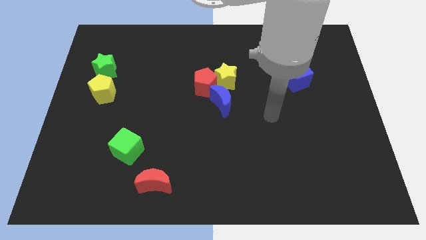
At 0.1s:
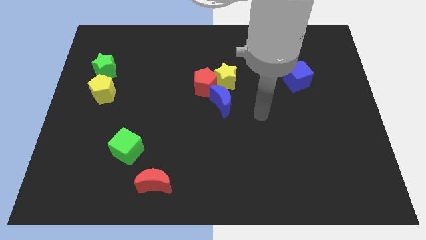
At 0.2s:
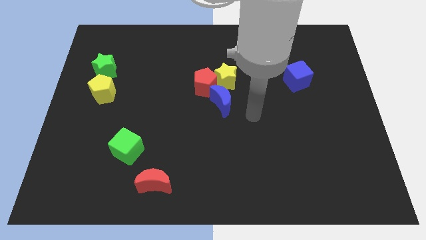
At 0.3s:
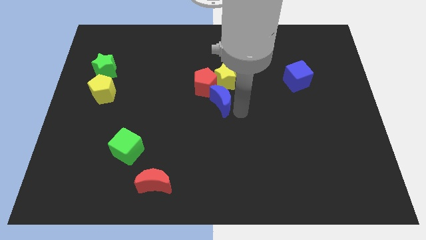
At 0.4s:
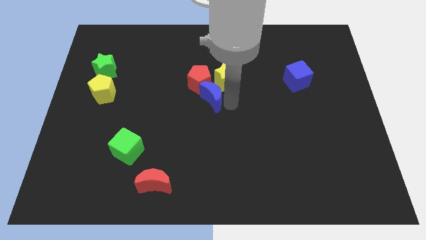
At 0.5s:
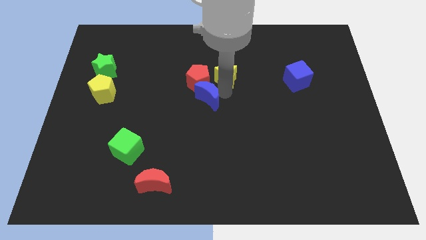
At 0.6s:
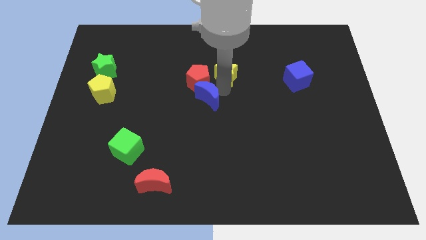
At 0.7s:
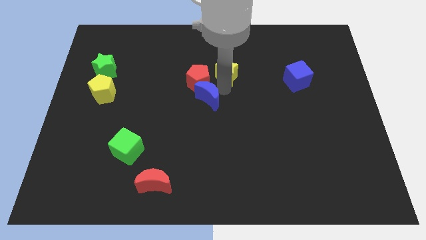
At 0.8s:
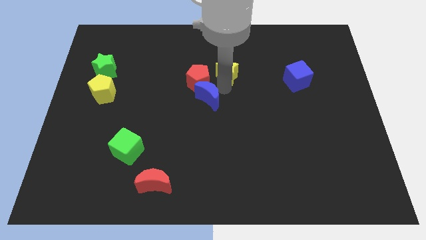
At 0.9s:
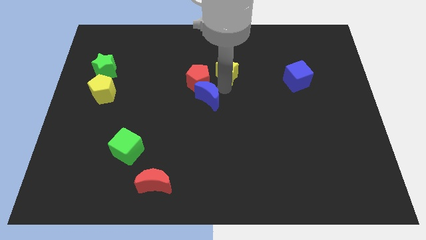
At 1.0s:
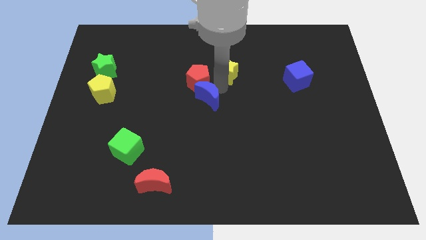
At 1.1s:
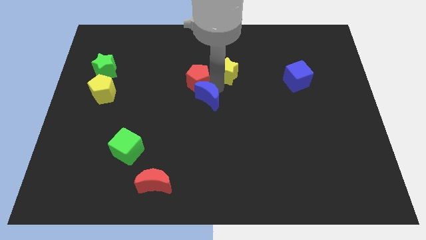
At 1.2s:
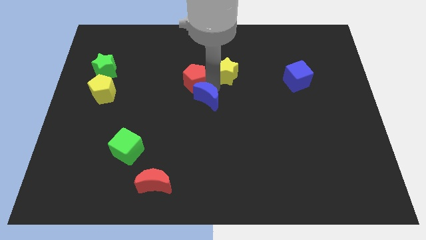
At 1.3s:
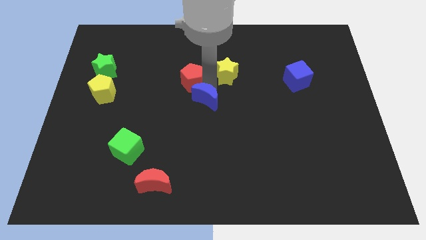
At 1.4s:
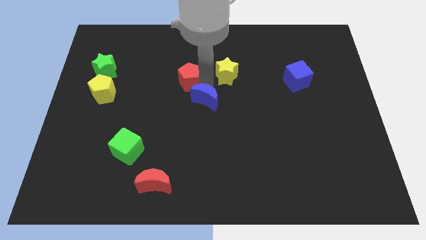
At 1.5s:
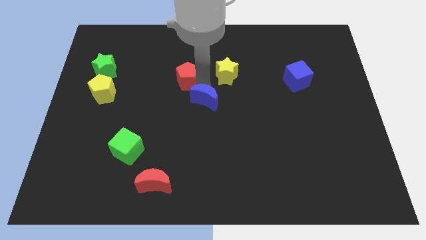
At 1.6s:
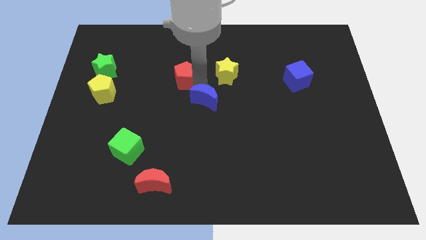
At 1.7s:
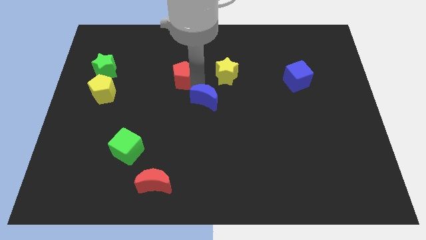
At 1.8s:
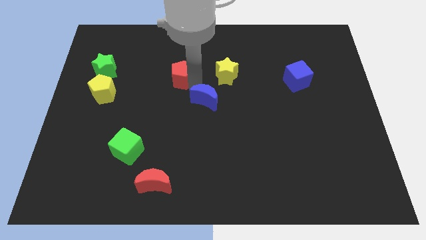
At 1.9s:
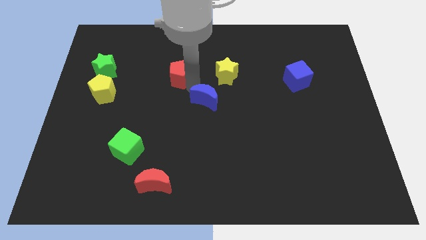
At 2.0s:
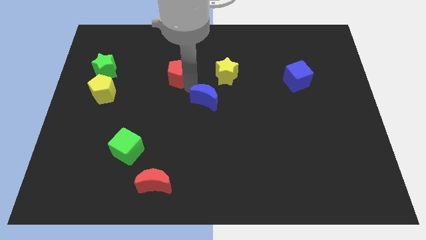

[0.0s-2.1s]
separate the red pentagon from the yellow star and blue moon

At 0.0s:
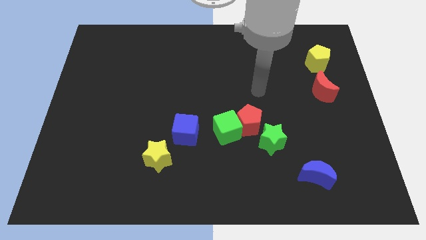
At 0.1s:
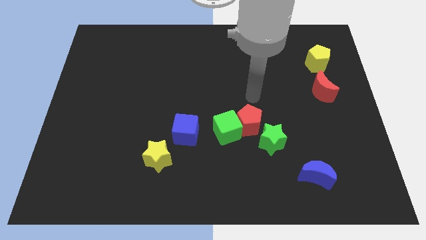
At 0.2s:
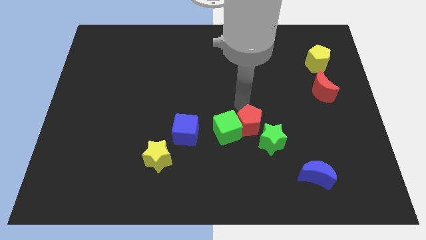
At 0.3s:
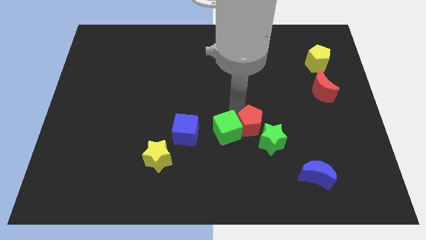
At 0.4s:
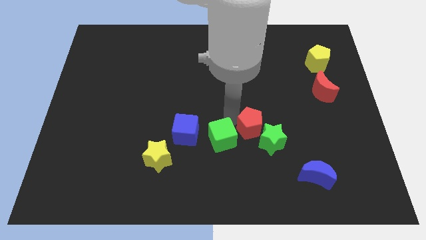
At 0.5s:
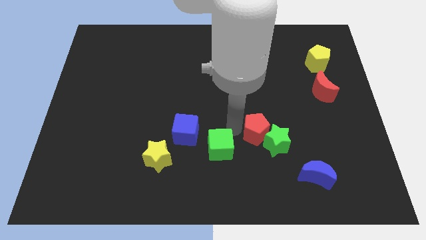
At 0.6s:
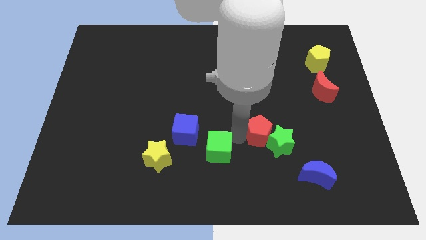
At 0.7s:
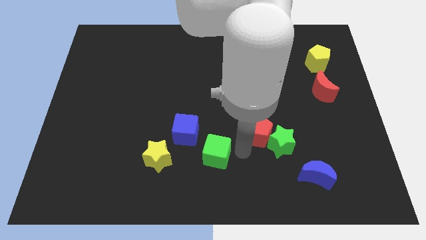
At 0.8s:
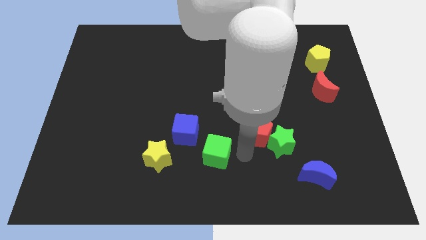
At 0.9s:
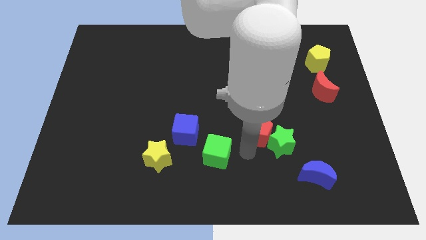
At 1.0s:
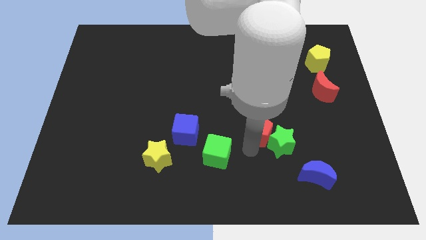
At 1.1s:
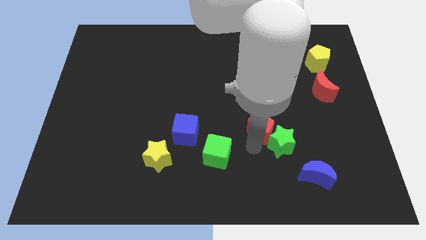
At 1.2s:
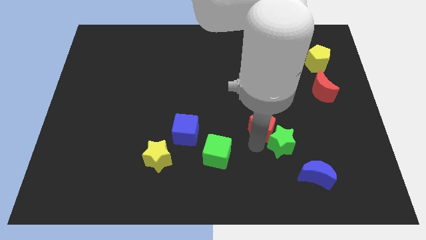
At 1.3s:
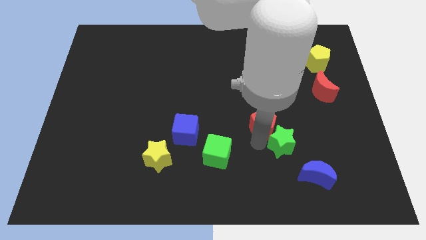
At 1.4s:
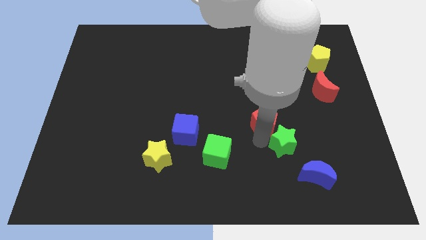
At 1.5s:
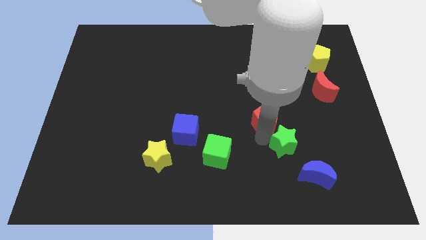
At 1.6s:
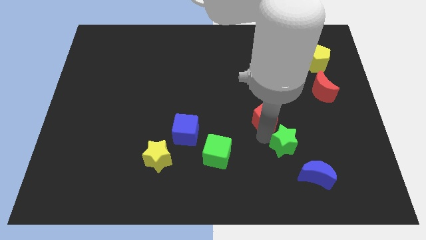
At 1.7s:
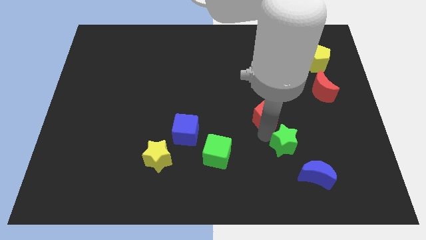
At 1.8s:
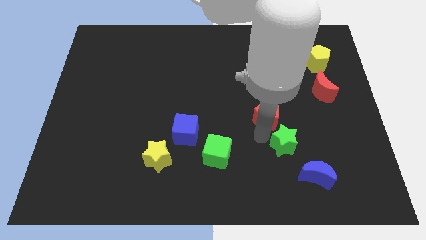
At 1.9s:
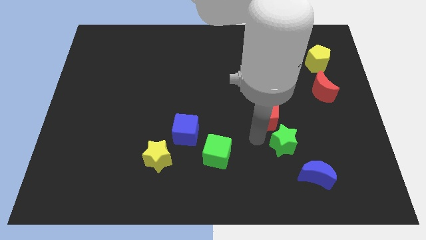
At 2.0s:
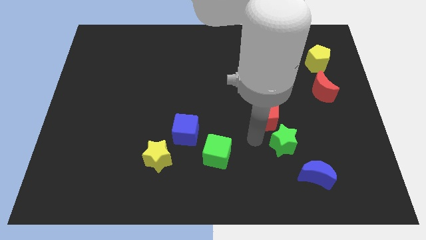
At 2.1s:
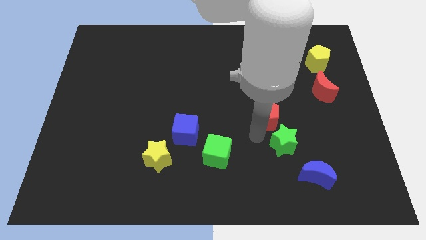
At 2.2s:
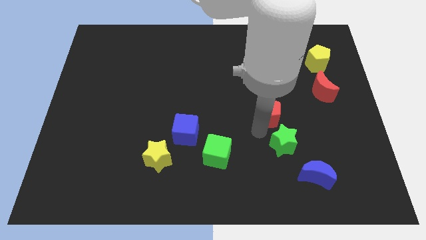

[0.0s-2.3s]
separate the red pentagon from the green cube and green star

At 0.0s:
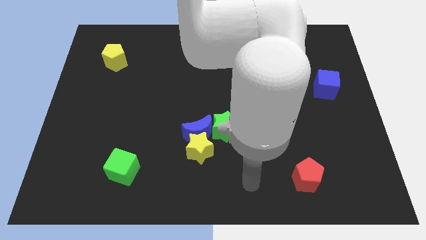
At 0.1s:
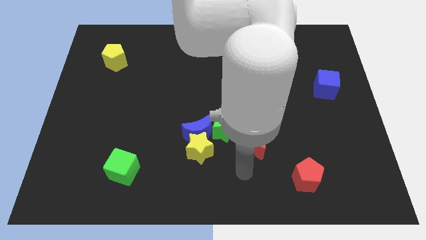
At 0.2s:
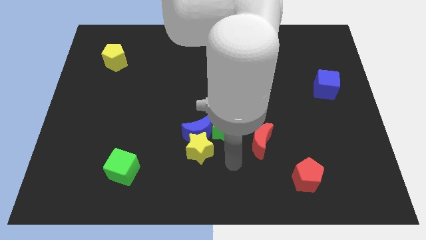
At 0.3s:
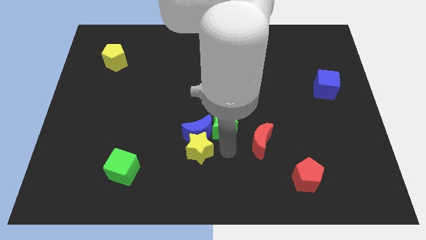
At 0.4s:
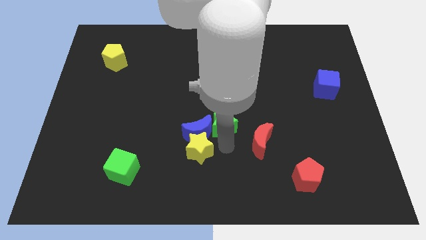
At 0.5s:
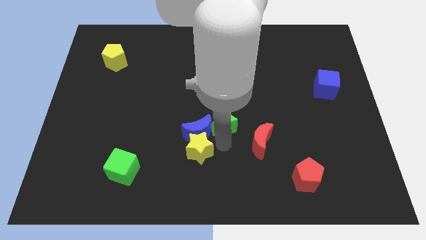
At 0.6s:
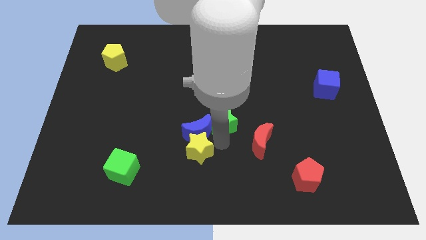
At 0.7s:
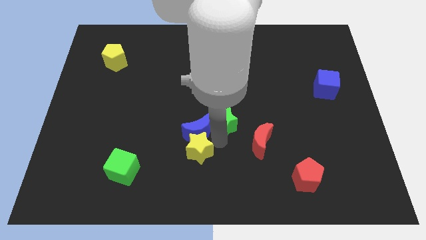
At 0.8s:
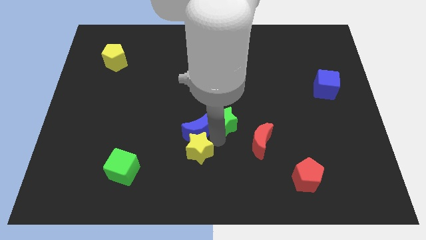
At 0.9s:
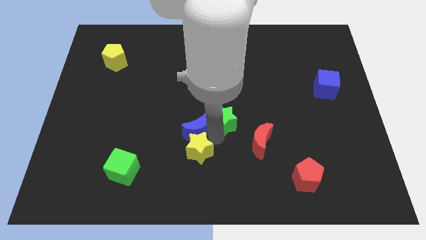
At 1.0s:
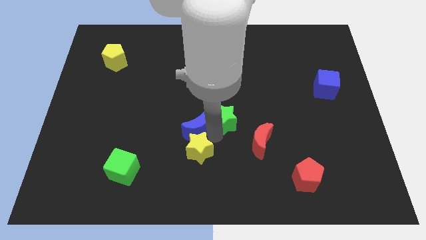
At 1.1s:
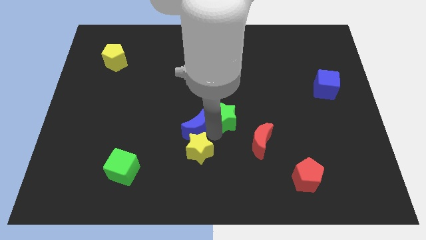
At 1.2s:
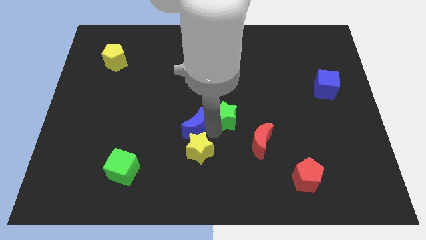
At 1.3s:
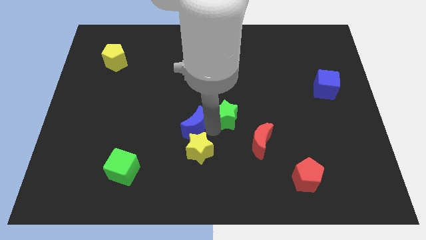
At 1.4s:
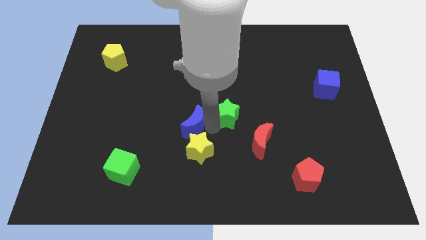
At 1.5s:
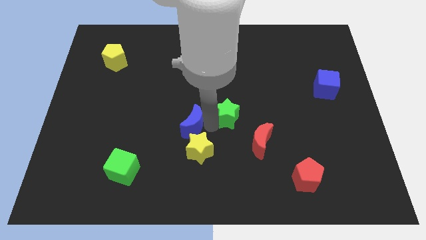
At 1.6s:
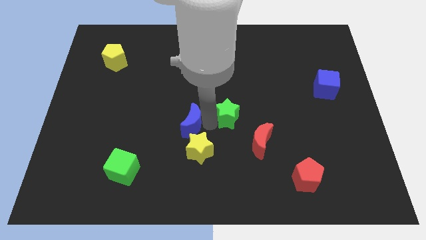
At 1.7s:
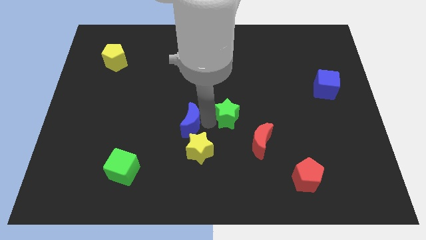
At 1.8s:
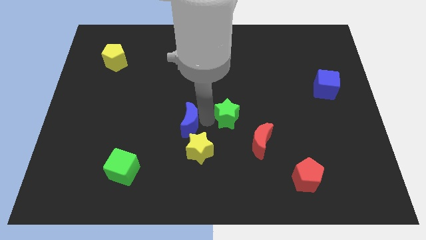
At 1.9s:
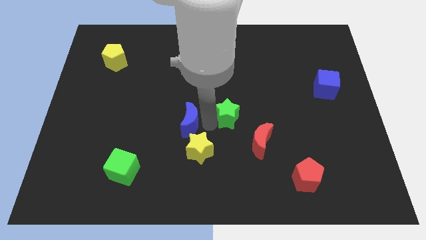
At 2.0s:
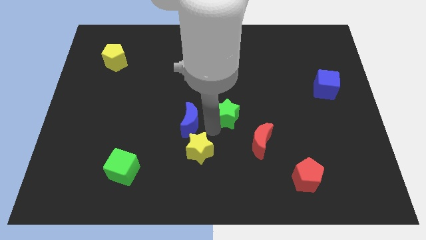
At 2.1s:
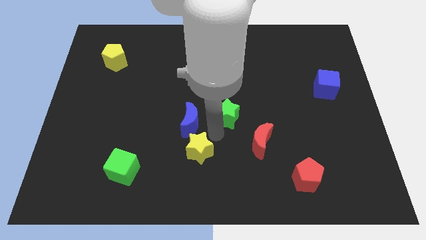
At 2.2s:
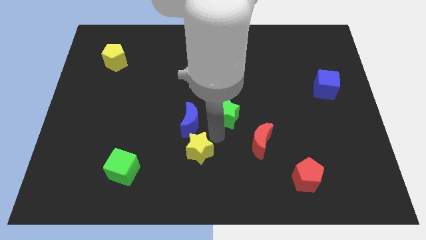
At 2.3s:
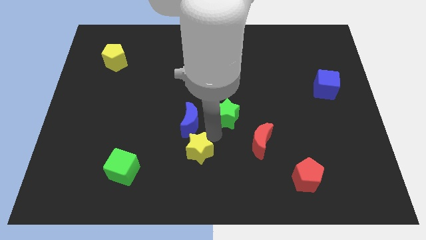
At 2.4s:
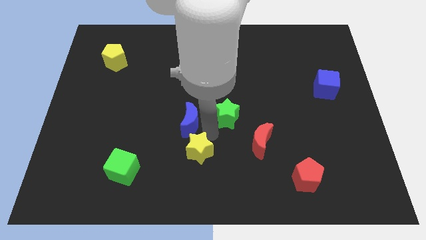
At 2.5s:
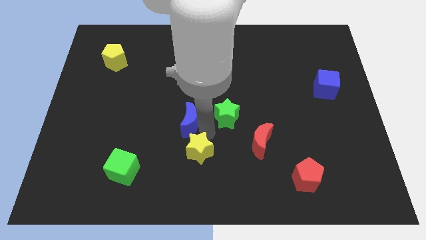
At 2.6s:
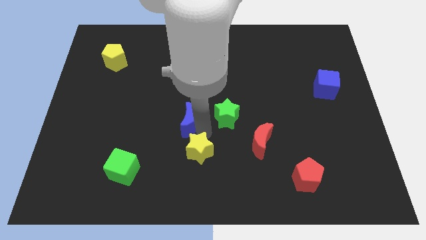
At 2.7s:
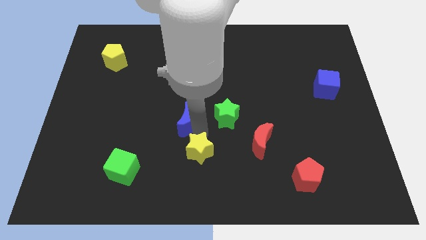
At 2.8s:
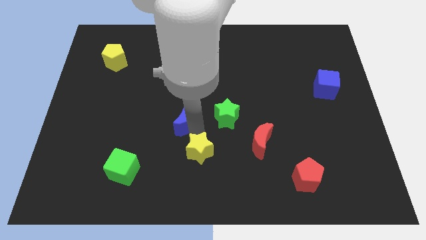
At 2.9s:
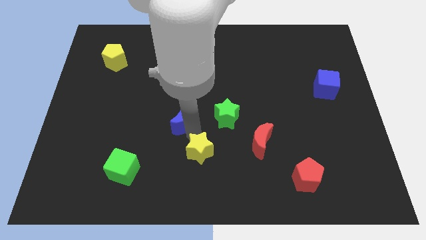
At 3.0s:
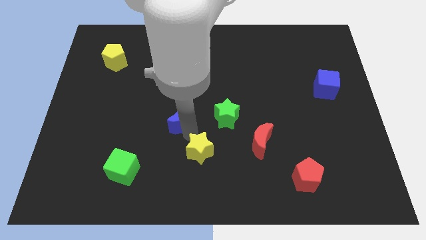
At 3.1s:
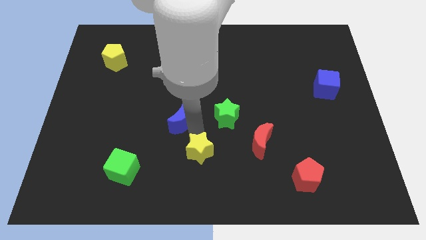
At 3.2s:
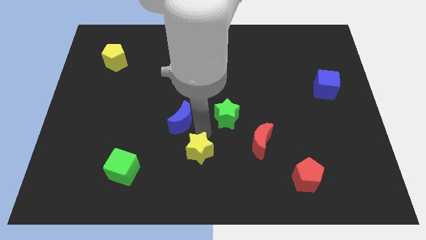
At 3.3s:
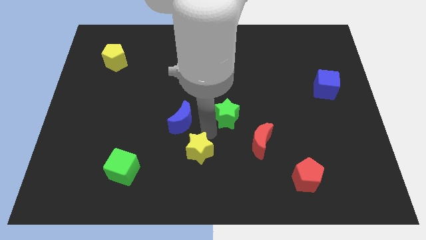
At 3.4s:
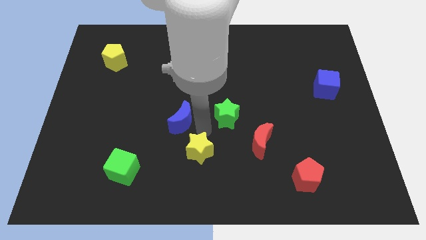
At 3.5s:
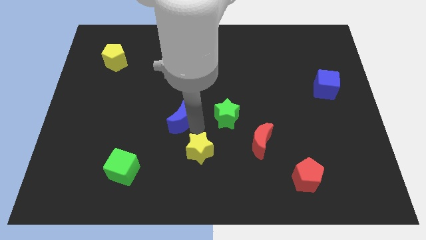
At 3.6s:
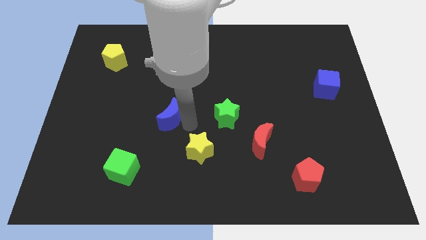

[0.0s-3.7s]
pull the blue moon apart from the yellow star and green star

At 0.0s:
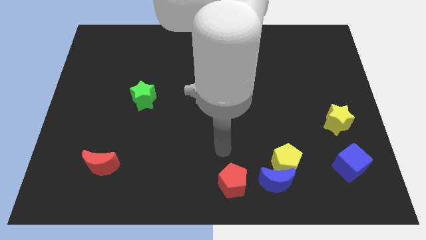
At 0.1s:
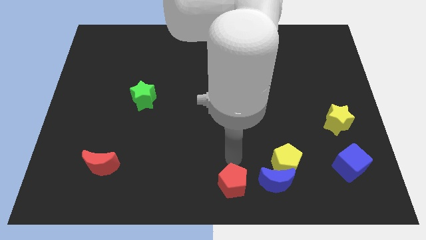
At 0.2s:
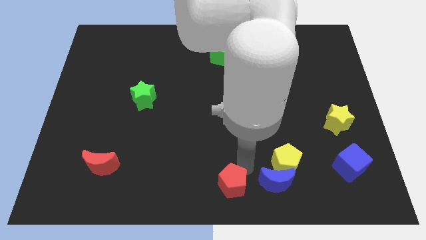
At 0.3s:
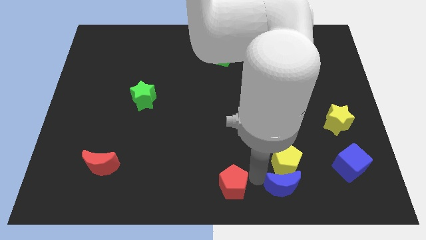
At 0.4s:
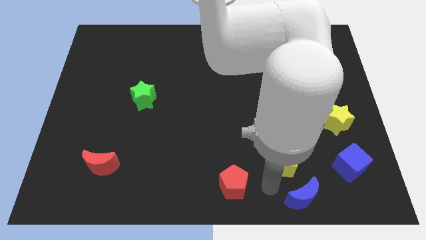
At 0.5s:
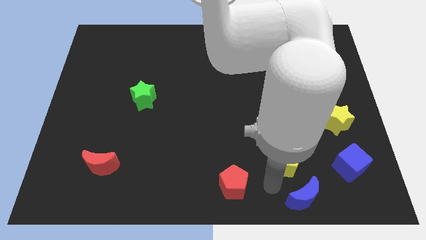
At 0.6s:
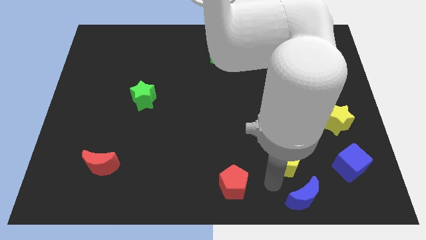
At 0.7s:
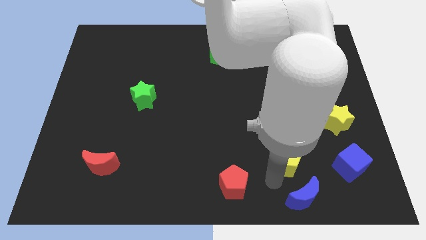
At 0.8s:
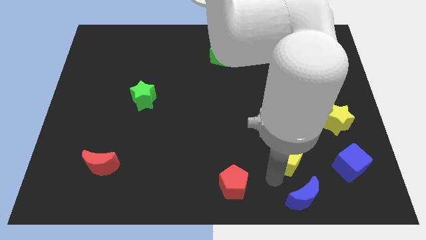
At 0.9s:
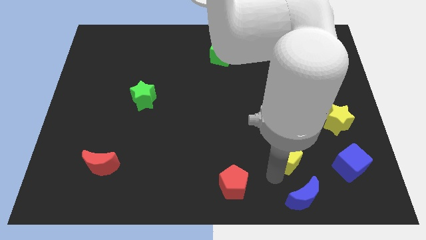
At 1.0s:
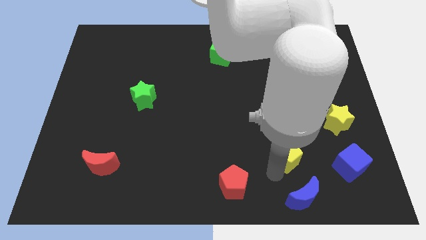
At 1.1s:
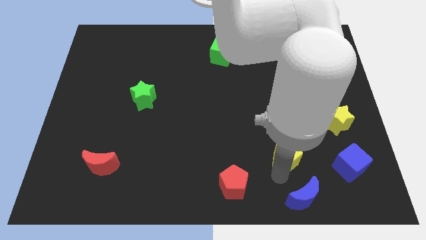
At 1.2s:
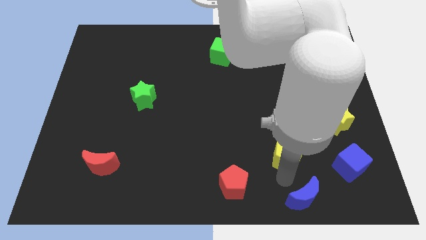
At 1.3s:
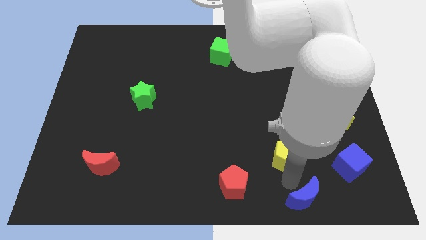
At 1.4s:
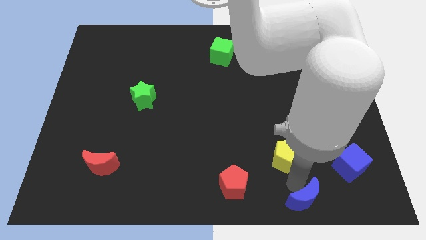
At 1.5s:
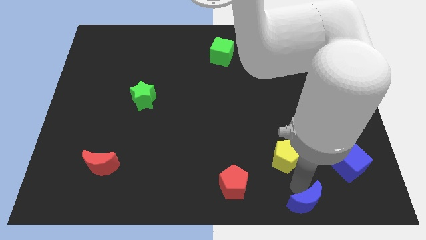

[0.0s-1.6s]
separate the yellow pentagon from the blue moon
